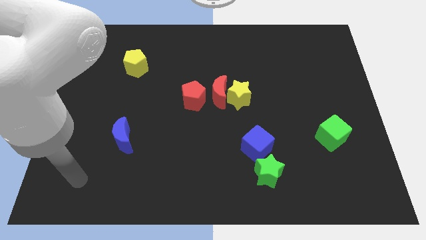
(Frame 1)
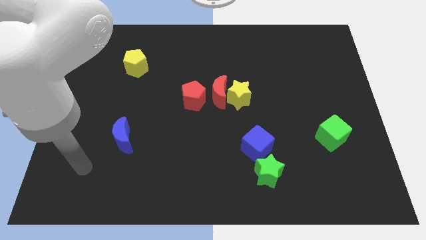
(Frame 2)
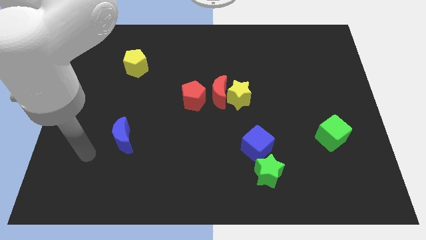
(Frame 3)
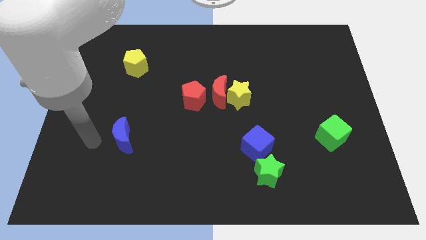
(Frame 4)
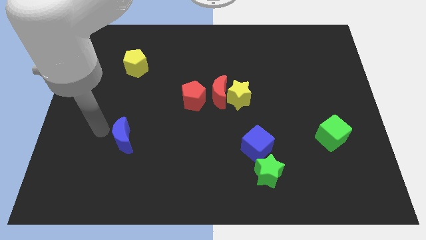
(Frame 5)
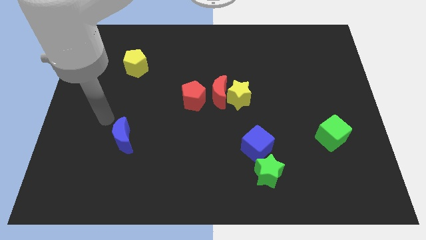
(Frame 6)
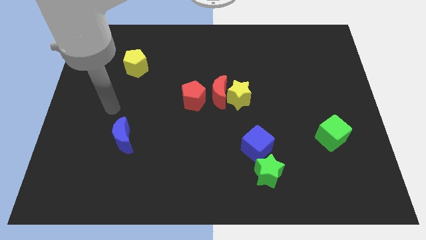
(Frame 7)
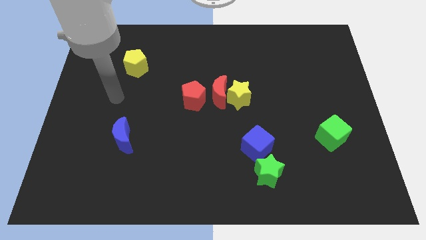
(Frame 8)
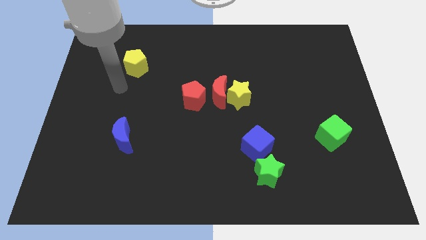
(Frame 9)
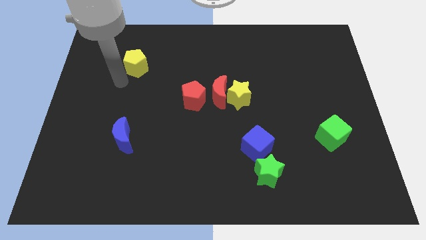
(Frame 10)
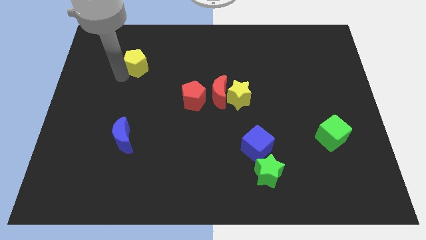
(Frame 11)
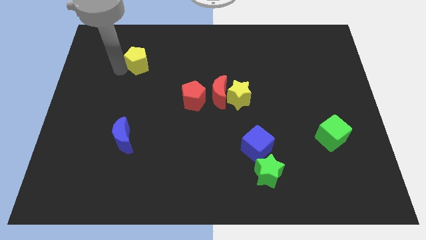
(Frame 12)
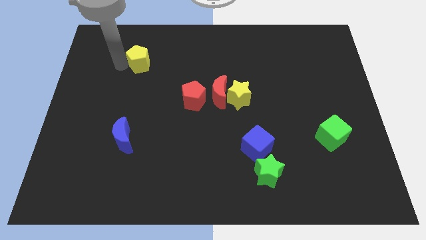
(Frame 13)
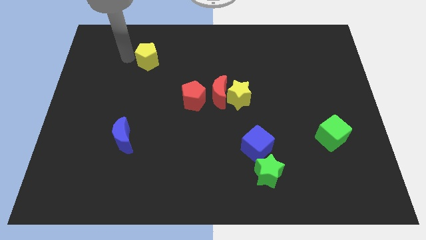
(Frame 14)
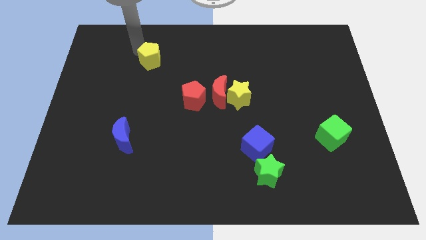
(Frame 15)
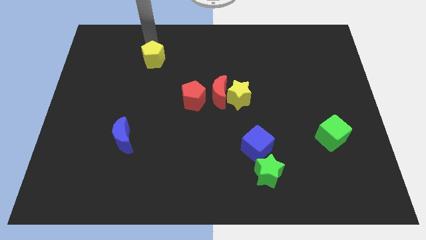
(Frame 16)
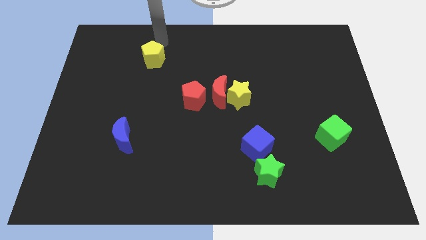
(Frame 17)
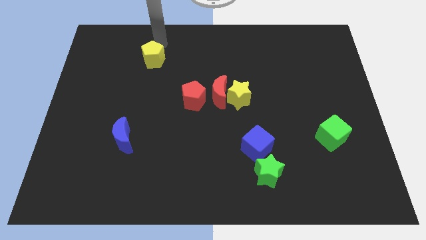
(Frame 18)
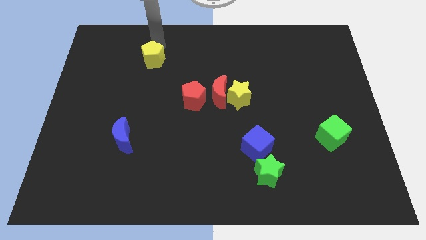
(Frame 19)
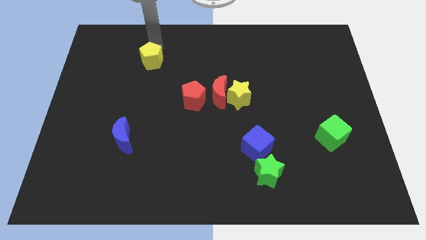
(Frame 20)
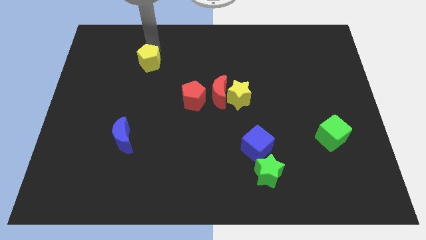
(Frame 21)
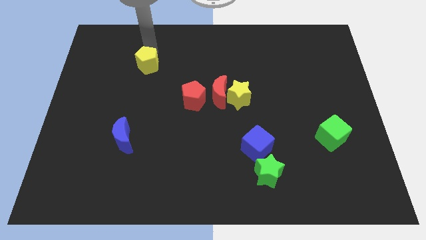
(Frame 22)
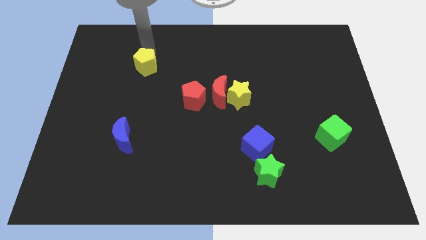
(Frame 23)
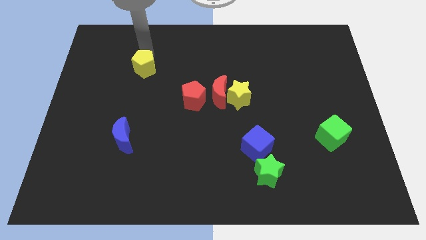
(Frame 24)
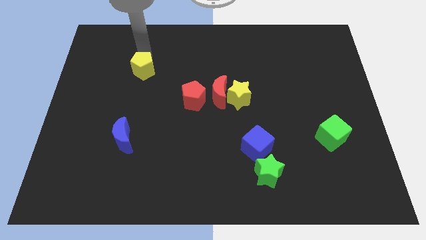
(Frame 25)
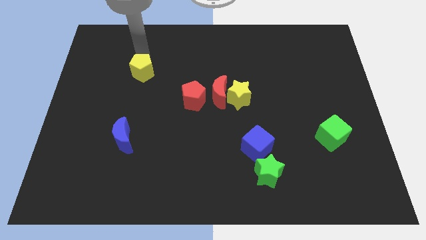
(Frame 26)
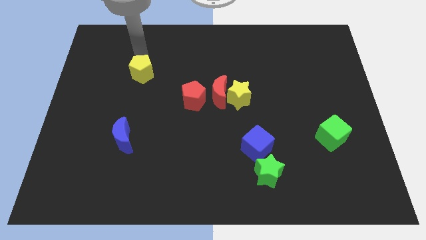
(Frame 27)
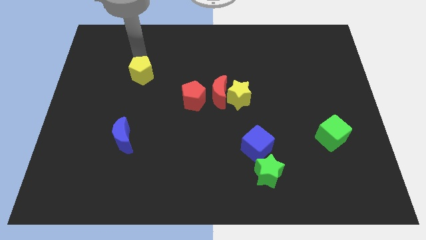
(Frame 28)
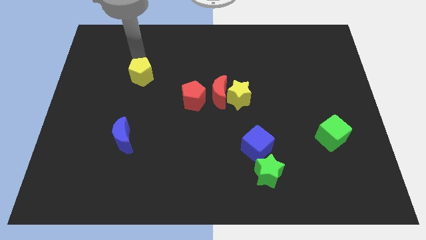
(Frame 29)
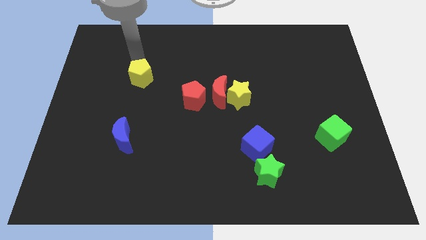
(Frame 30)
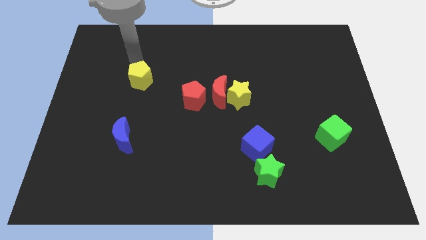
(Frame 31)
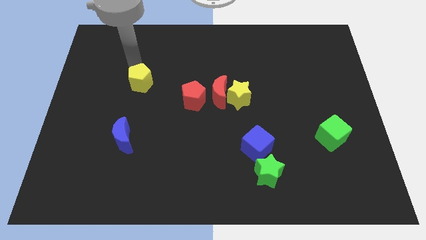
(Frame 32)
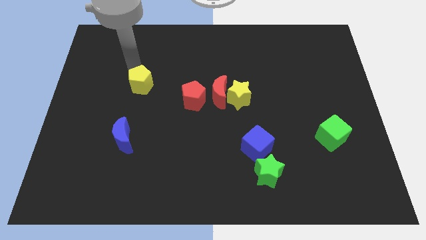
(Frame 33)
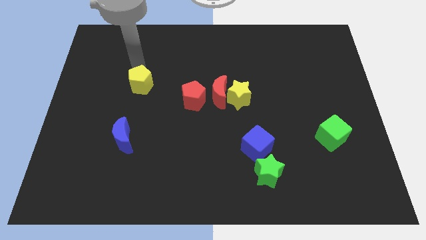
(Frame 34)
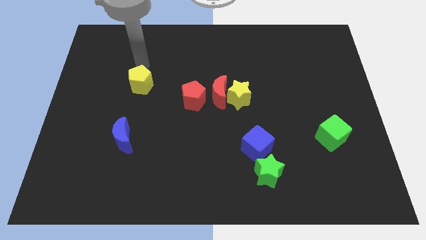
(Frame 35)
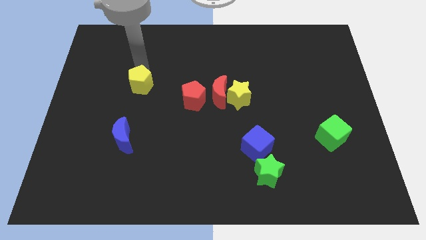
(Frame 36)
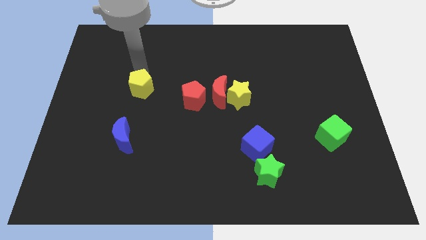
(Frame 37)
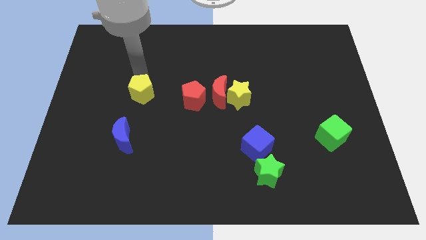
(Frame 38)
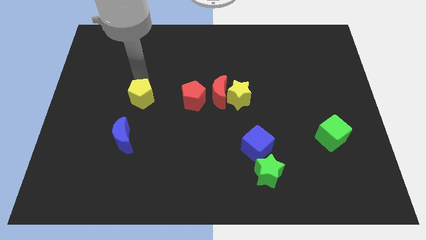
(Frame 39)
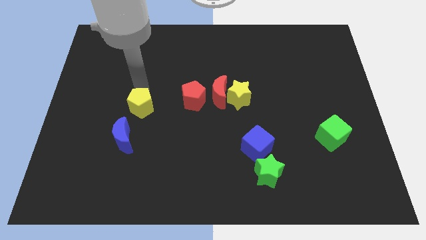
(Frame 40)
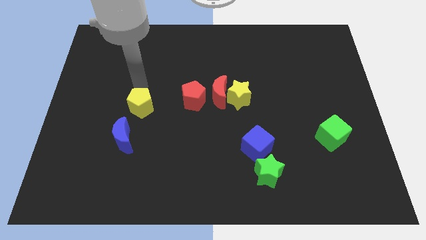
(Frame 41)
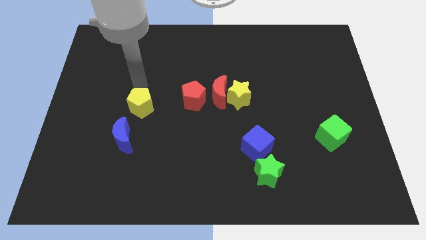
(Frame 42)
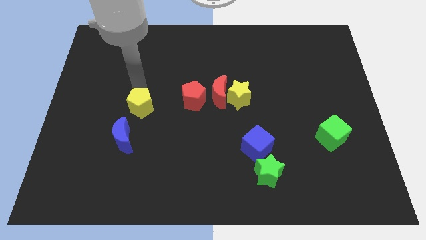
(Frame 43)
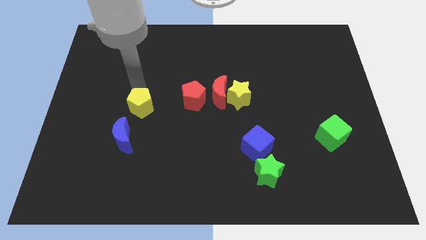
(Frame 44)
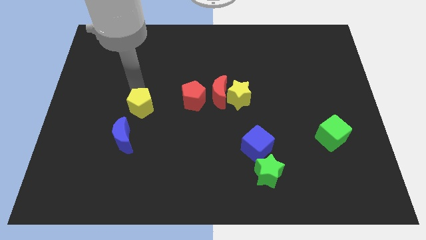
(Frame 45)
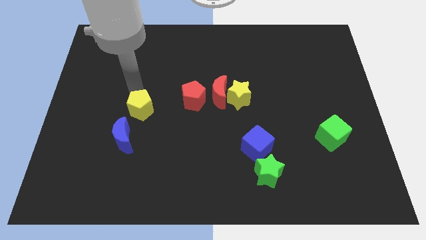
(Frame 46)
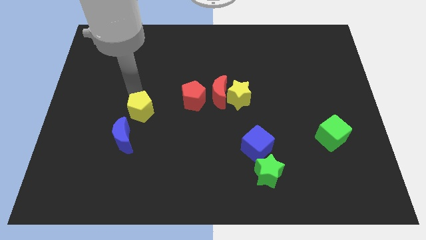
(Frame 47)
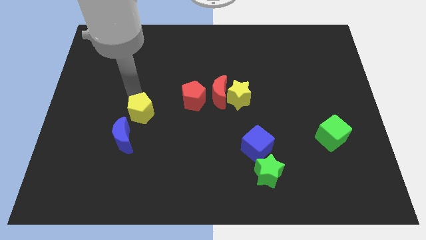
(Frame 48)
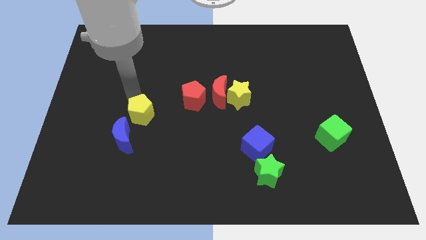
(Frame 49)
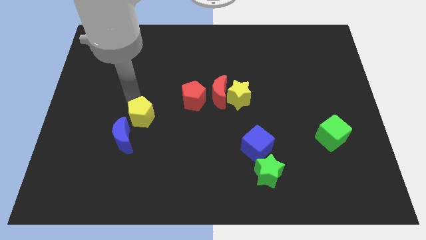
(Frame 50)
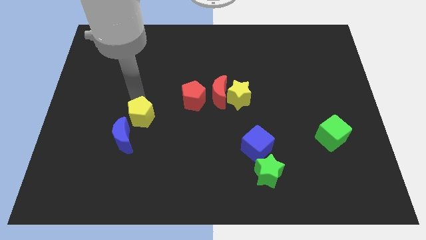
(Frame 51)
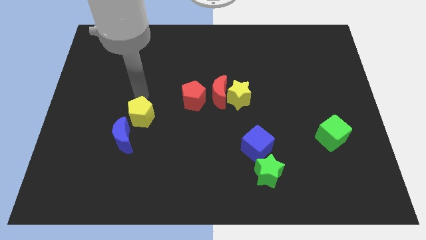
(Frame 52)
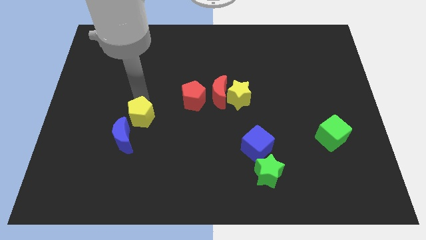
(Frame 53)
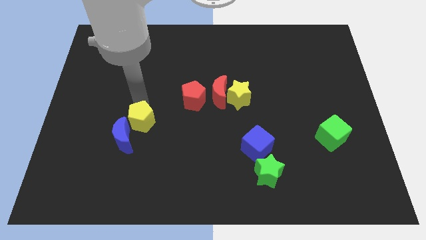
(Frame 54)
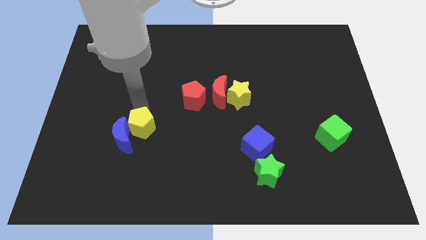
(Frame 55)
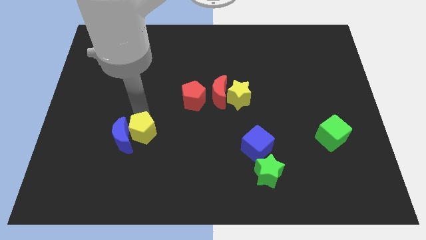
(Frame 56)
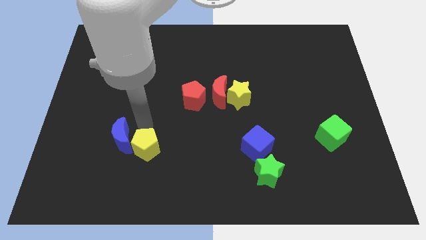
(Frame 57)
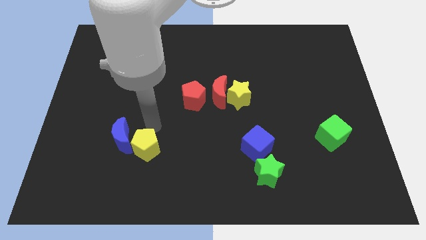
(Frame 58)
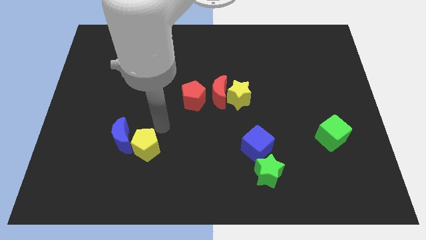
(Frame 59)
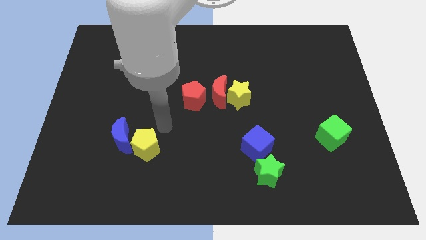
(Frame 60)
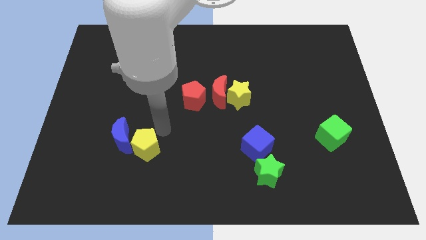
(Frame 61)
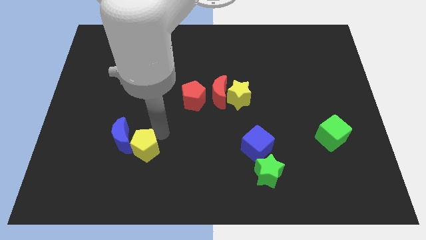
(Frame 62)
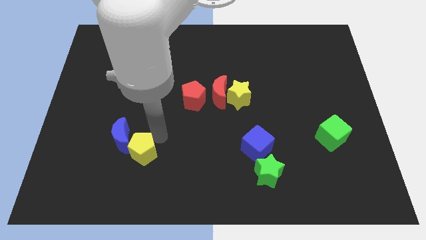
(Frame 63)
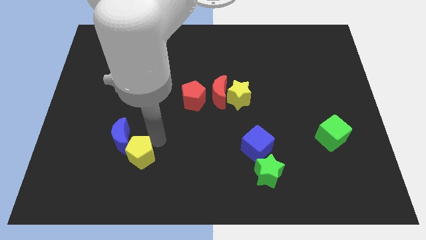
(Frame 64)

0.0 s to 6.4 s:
push the yellow pentagon to the bottom side of the blue moon

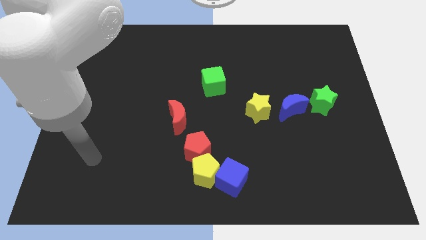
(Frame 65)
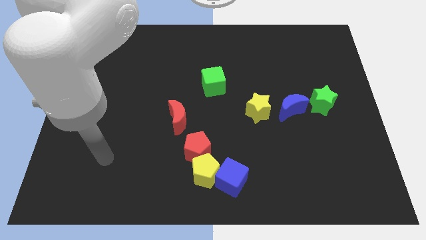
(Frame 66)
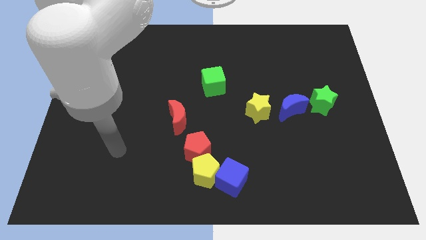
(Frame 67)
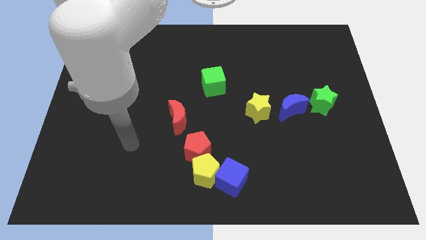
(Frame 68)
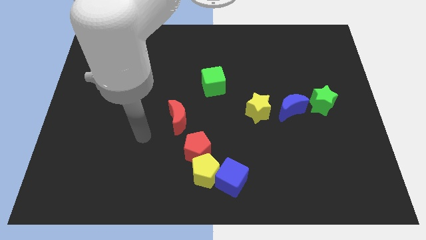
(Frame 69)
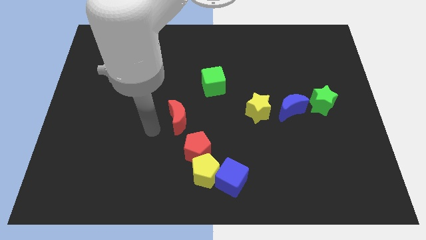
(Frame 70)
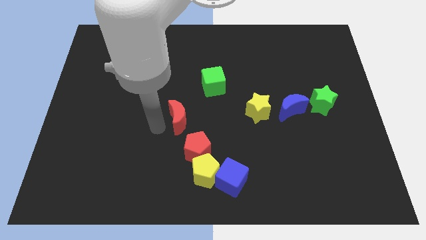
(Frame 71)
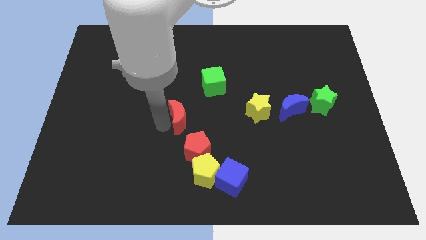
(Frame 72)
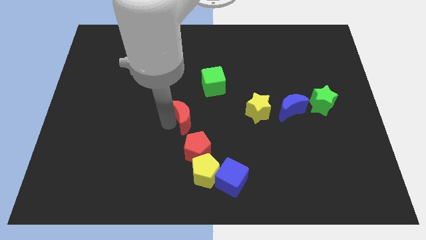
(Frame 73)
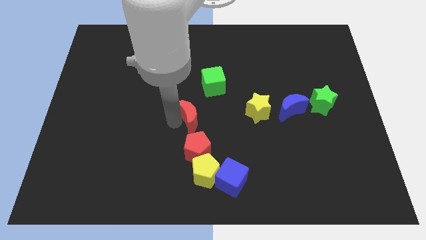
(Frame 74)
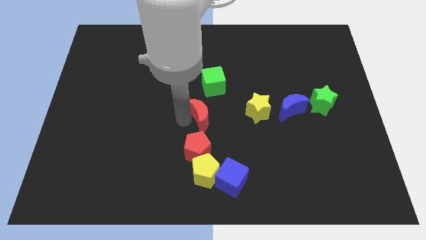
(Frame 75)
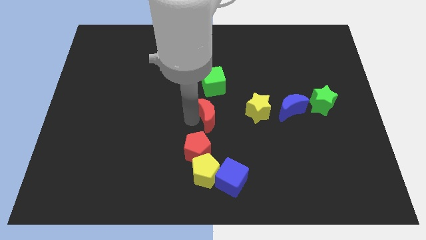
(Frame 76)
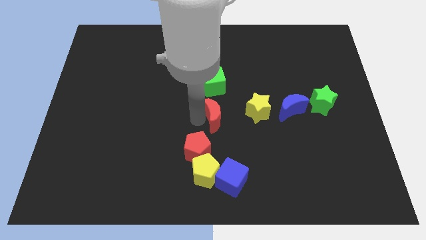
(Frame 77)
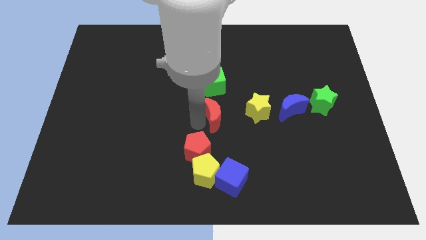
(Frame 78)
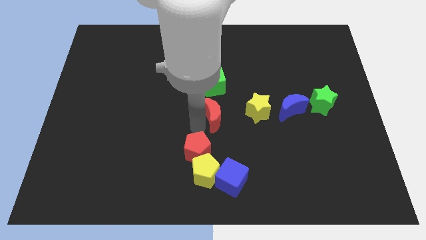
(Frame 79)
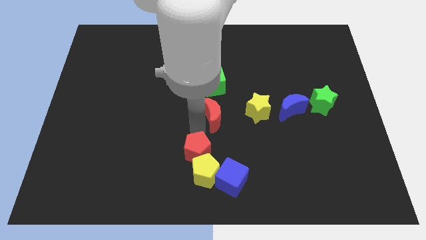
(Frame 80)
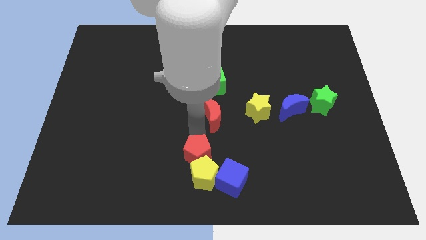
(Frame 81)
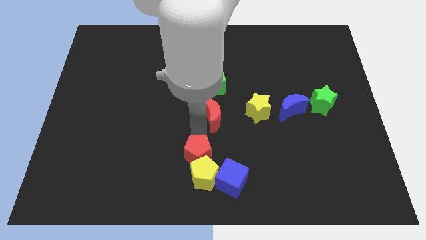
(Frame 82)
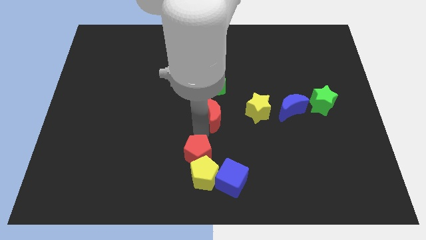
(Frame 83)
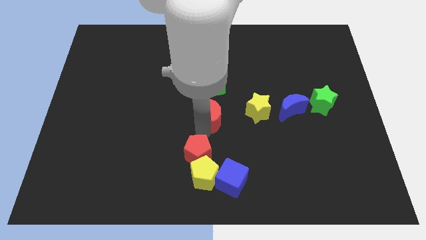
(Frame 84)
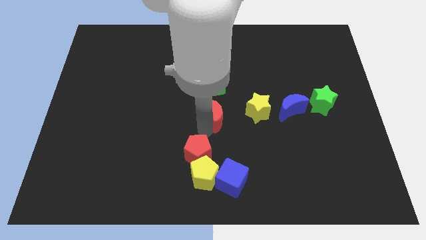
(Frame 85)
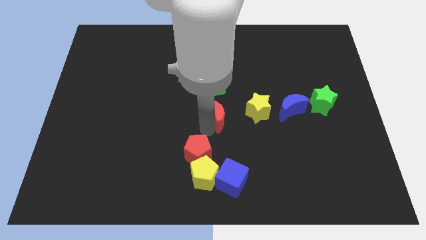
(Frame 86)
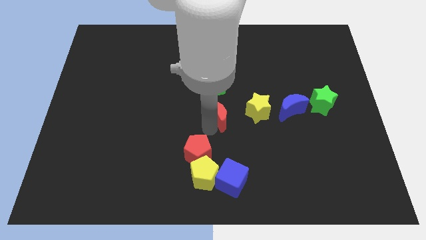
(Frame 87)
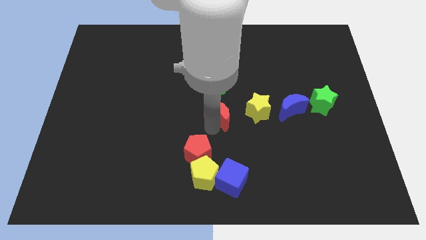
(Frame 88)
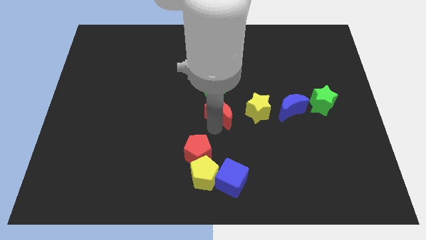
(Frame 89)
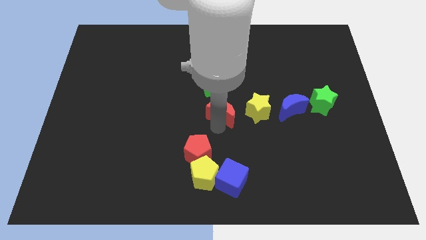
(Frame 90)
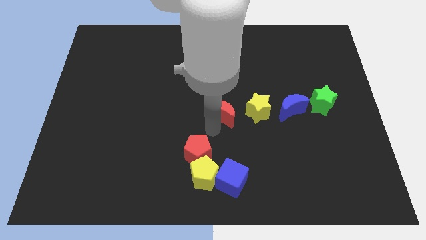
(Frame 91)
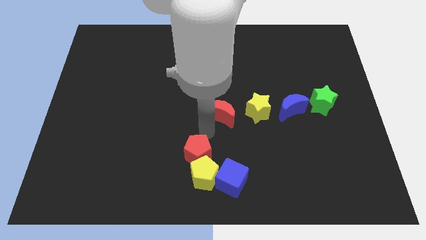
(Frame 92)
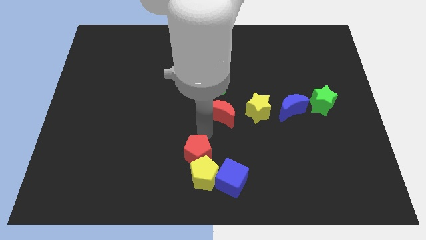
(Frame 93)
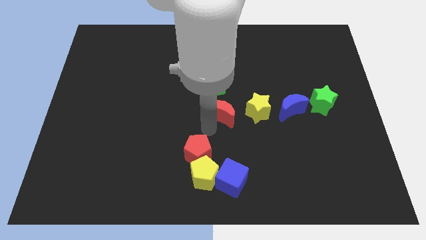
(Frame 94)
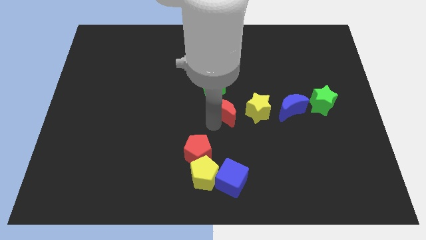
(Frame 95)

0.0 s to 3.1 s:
slide the red moon to the bottom right side of the green cube
